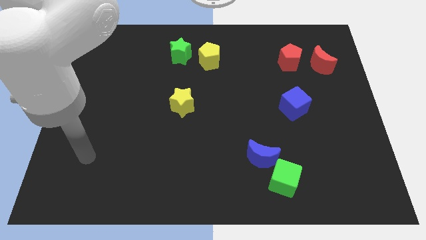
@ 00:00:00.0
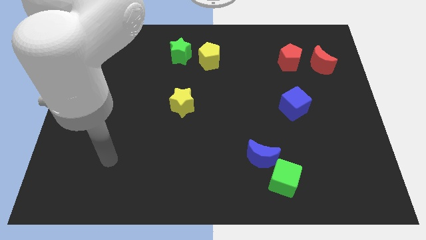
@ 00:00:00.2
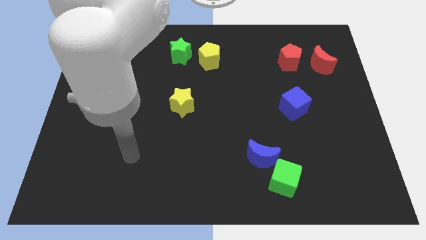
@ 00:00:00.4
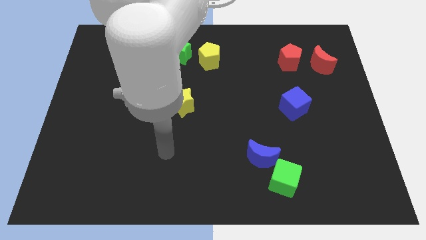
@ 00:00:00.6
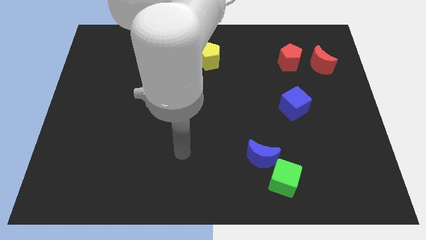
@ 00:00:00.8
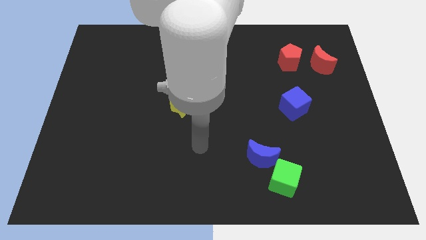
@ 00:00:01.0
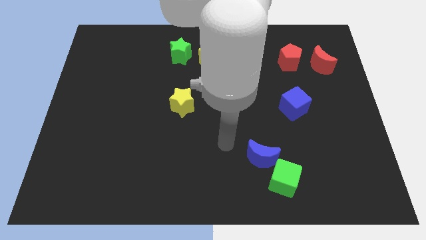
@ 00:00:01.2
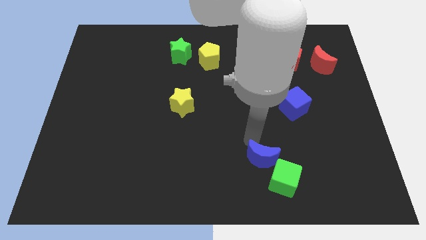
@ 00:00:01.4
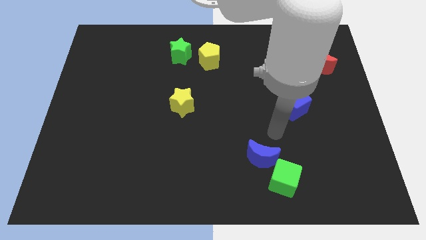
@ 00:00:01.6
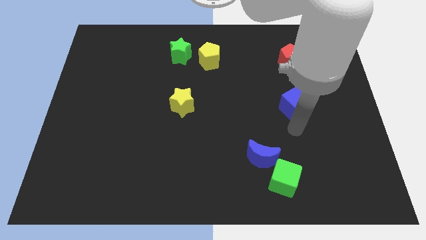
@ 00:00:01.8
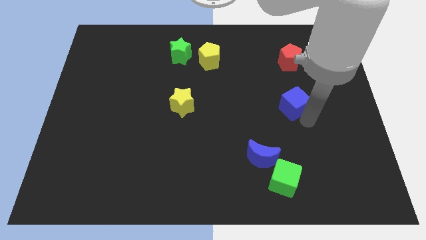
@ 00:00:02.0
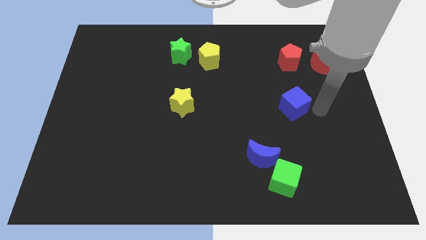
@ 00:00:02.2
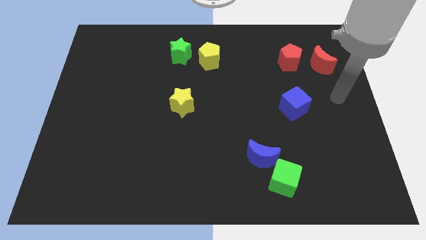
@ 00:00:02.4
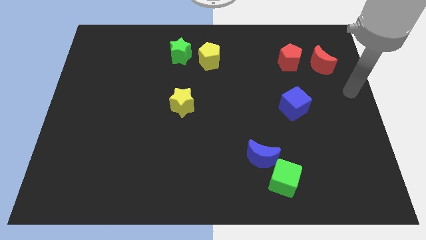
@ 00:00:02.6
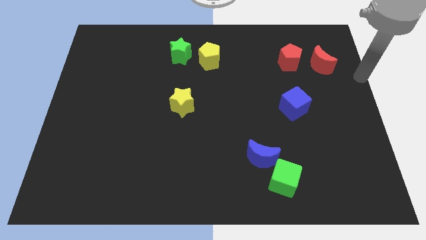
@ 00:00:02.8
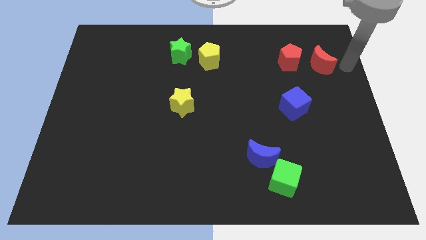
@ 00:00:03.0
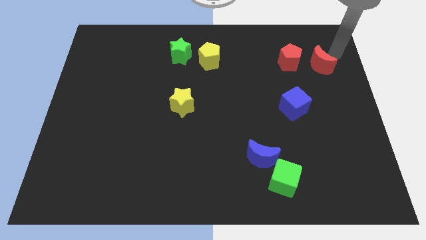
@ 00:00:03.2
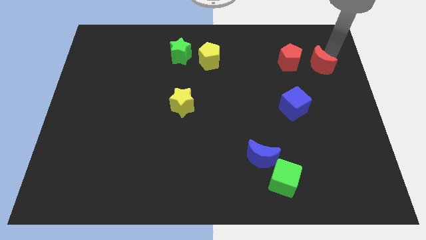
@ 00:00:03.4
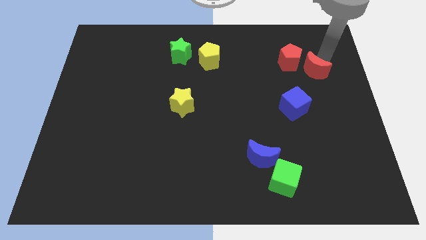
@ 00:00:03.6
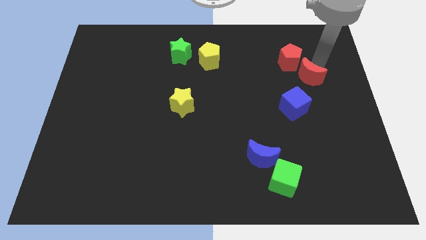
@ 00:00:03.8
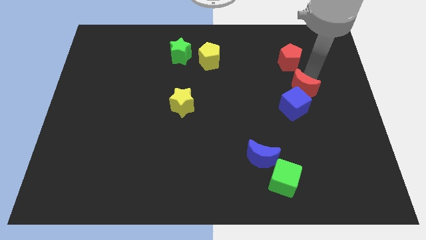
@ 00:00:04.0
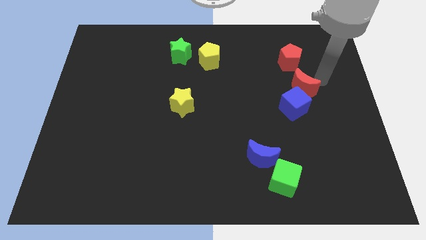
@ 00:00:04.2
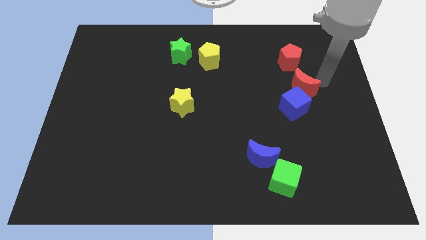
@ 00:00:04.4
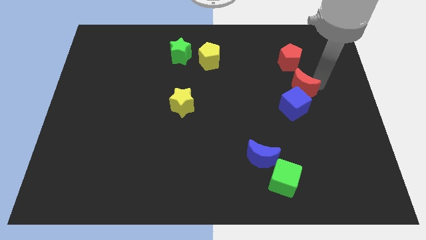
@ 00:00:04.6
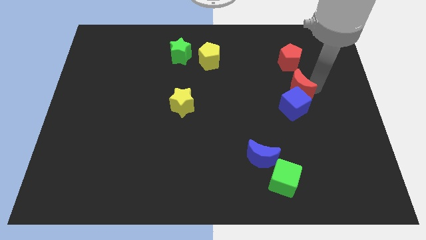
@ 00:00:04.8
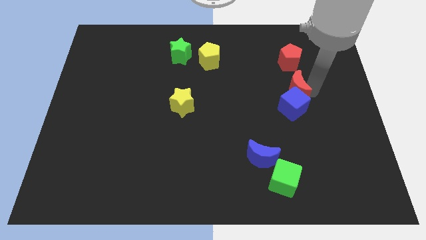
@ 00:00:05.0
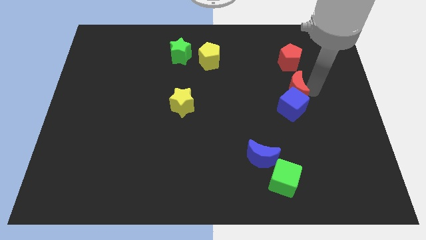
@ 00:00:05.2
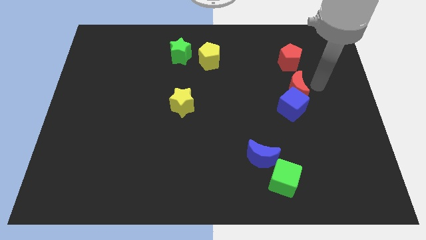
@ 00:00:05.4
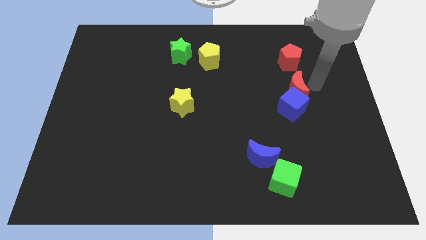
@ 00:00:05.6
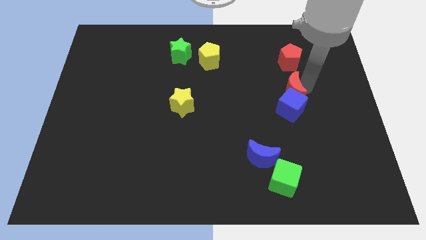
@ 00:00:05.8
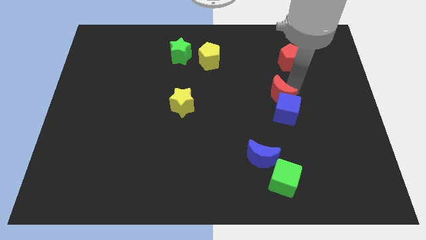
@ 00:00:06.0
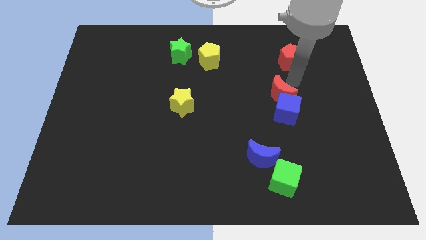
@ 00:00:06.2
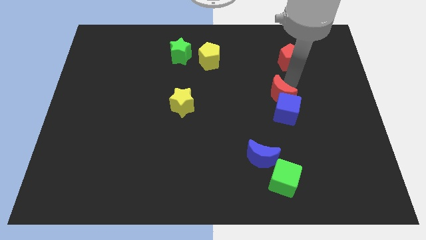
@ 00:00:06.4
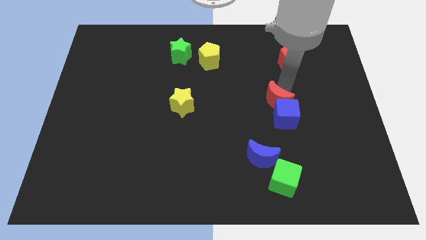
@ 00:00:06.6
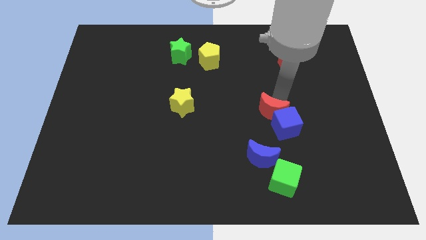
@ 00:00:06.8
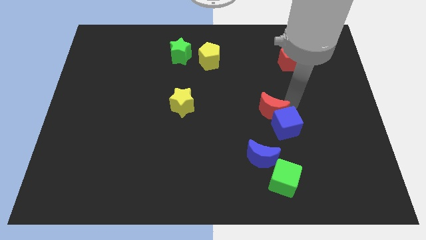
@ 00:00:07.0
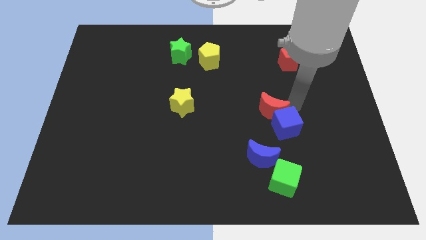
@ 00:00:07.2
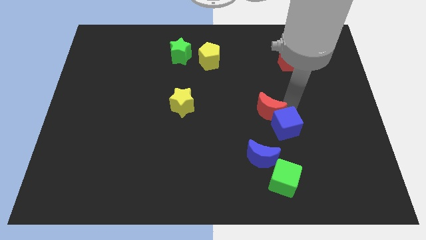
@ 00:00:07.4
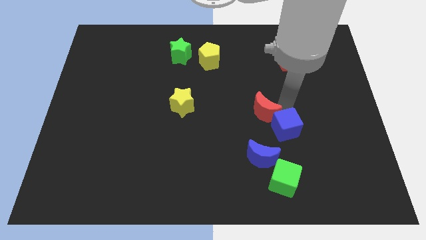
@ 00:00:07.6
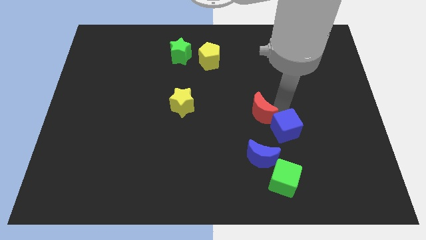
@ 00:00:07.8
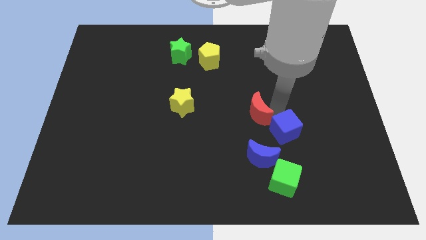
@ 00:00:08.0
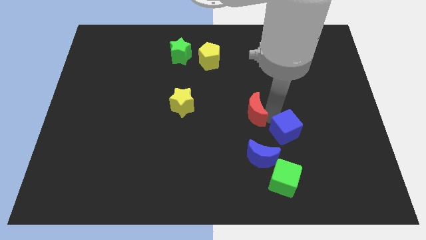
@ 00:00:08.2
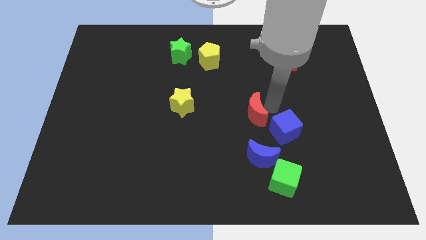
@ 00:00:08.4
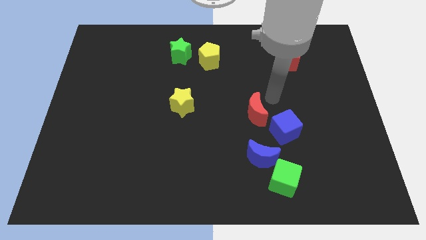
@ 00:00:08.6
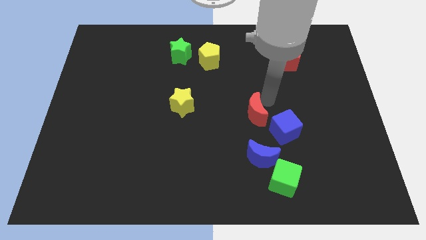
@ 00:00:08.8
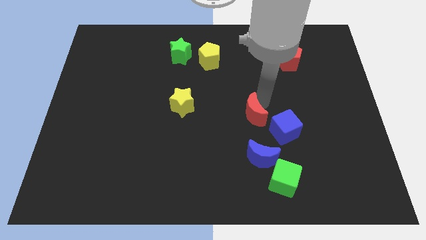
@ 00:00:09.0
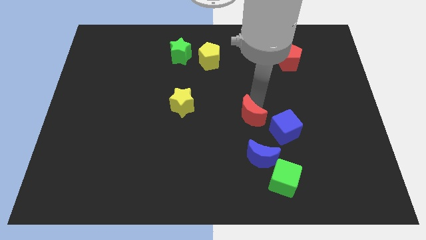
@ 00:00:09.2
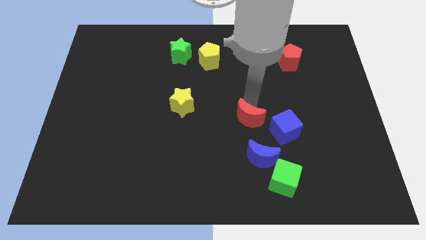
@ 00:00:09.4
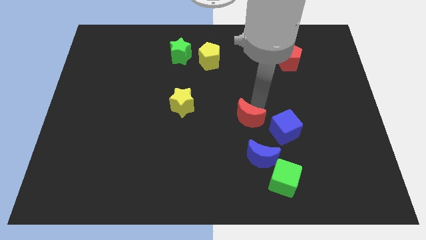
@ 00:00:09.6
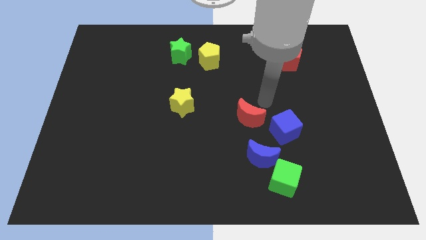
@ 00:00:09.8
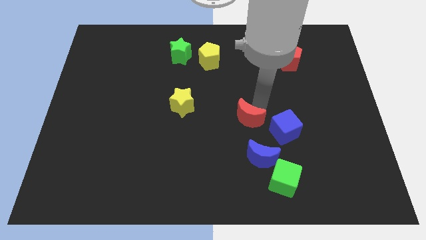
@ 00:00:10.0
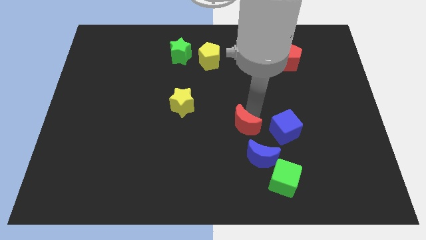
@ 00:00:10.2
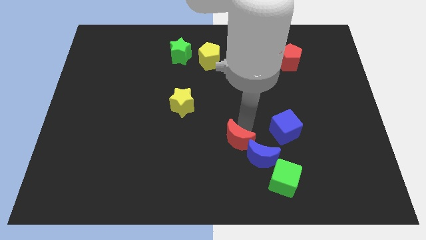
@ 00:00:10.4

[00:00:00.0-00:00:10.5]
put the red moon to the left of the blue moon

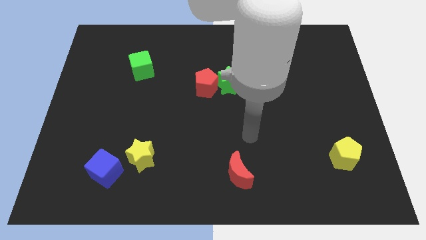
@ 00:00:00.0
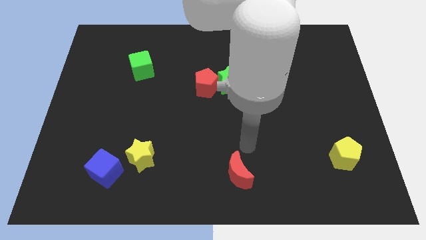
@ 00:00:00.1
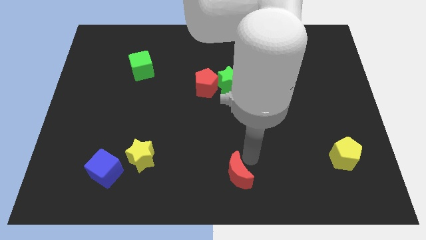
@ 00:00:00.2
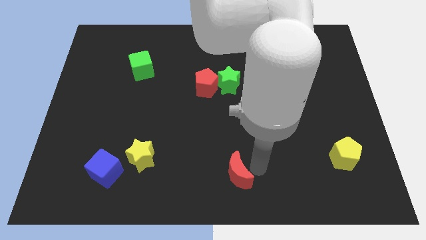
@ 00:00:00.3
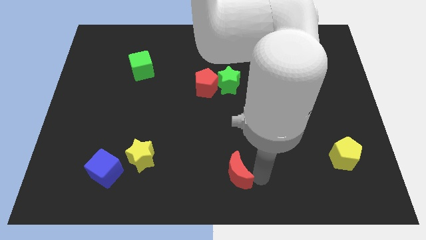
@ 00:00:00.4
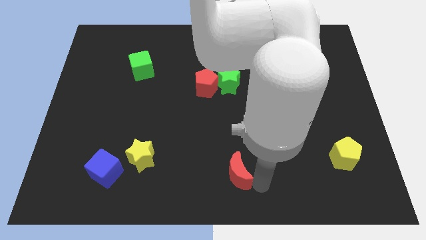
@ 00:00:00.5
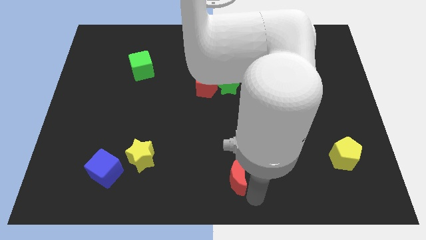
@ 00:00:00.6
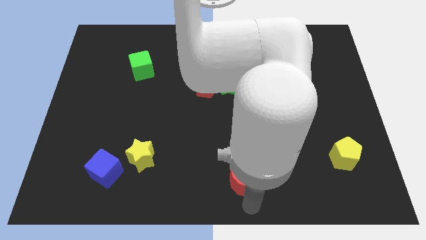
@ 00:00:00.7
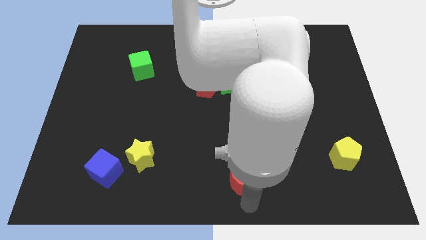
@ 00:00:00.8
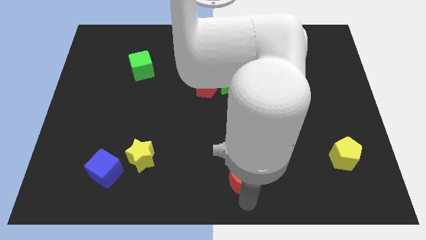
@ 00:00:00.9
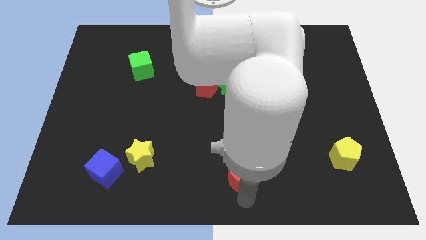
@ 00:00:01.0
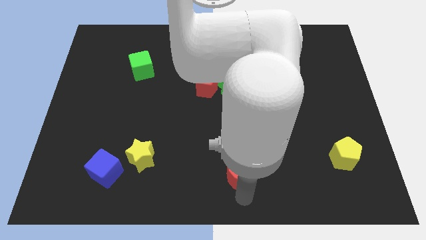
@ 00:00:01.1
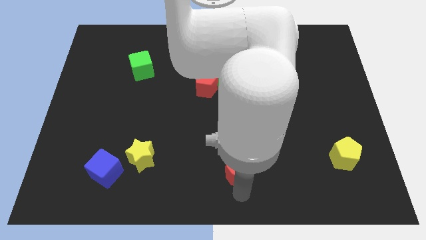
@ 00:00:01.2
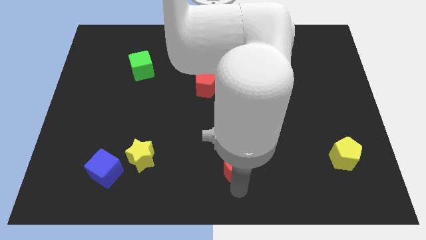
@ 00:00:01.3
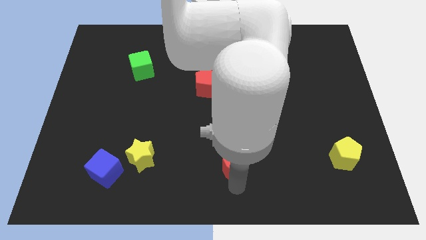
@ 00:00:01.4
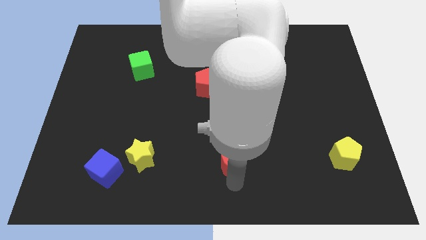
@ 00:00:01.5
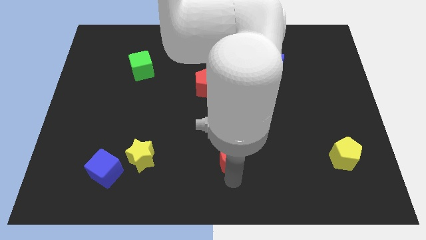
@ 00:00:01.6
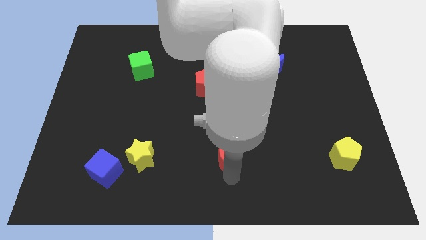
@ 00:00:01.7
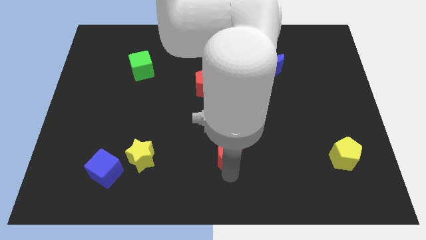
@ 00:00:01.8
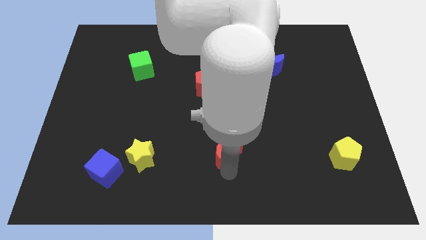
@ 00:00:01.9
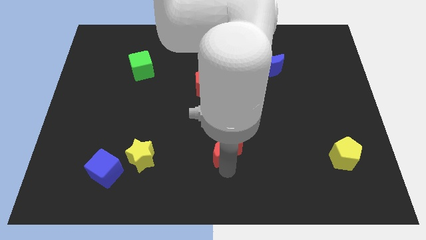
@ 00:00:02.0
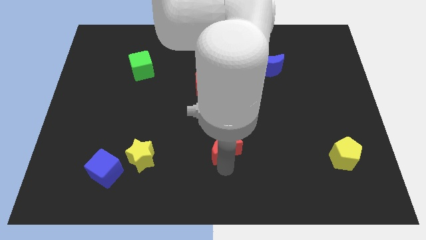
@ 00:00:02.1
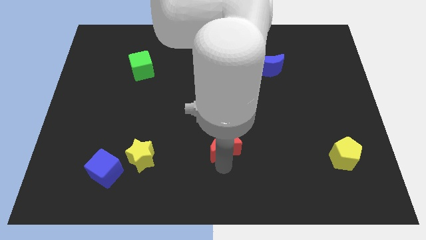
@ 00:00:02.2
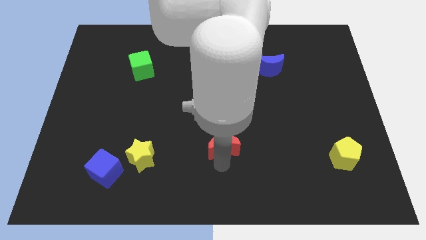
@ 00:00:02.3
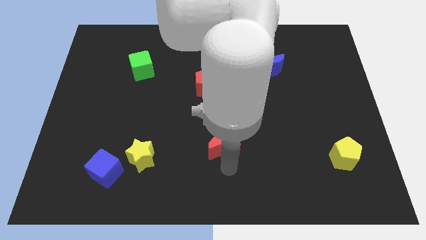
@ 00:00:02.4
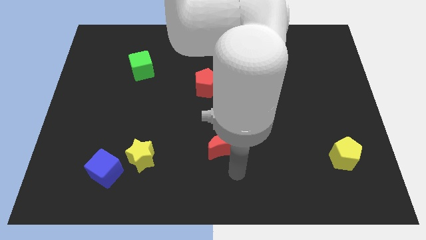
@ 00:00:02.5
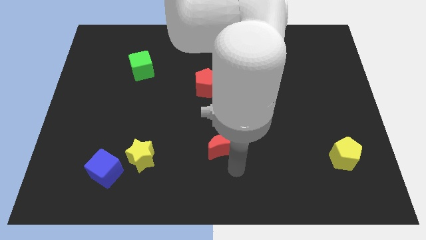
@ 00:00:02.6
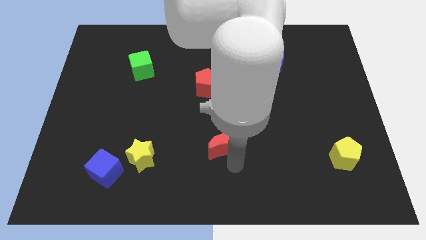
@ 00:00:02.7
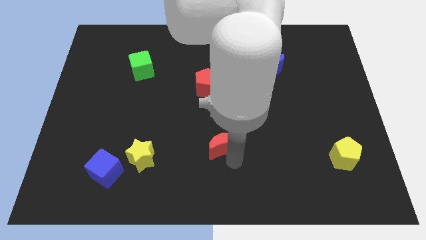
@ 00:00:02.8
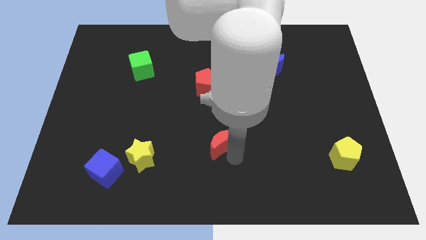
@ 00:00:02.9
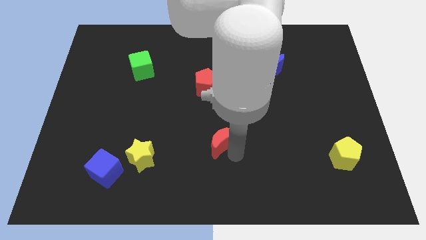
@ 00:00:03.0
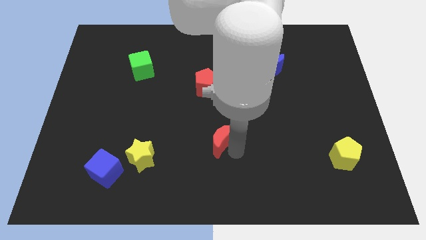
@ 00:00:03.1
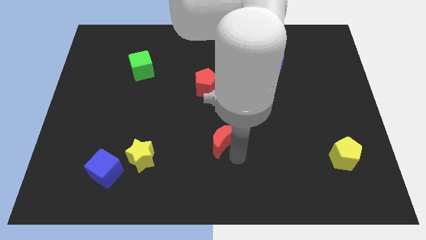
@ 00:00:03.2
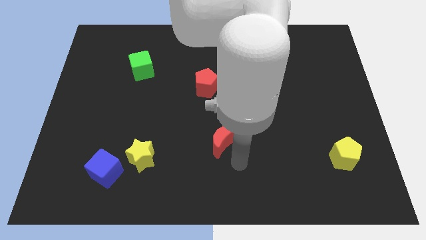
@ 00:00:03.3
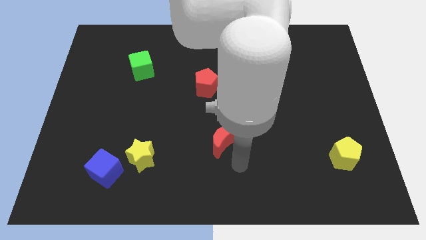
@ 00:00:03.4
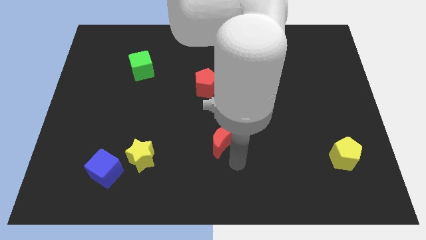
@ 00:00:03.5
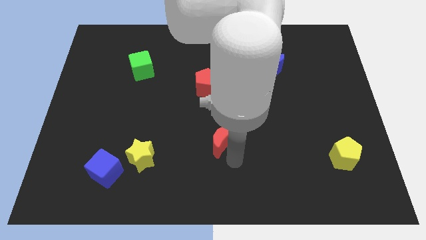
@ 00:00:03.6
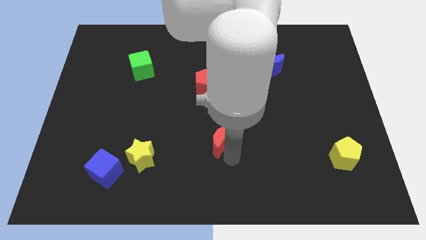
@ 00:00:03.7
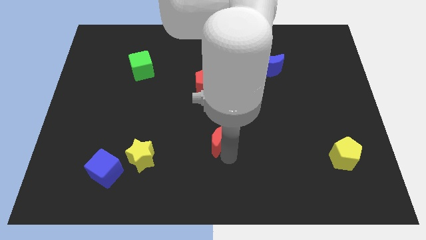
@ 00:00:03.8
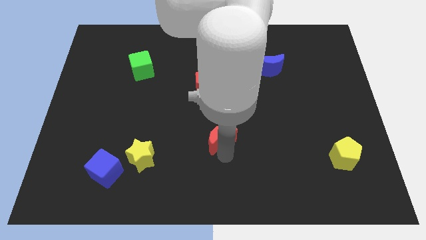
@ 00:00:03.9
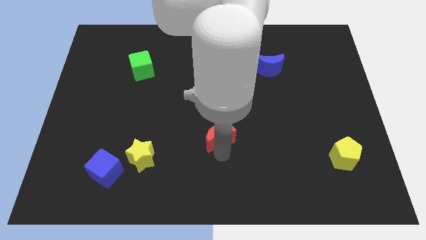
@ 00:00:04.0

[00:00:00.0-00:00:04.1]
slide the red moon below the red pentagon
